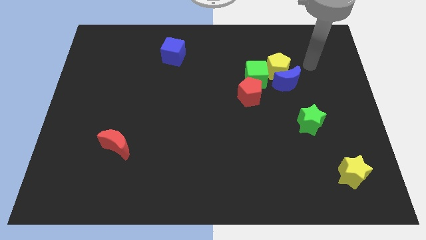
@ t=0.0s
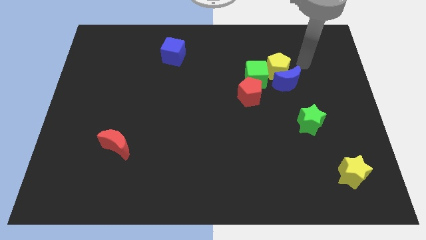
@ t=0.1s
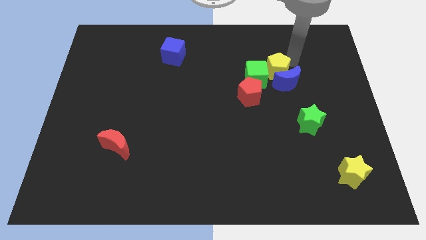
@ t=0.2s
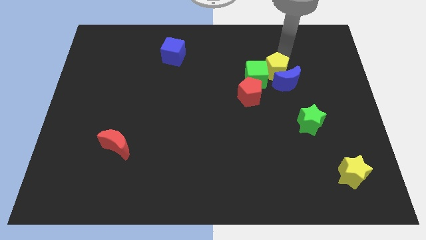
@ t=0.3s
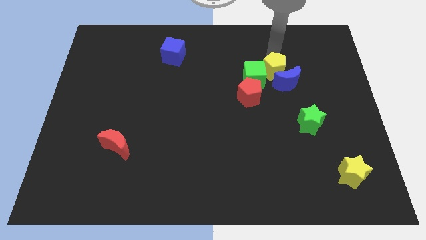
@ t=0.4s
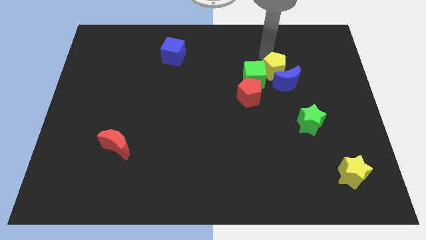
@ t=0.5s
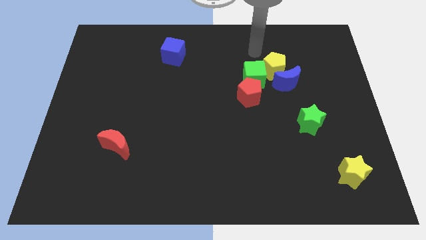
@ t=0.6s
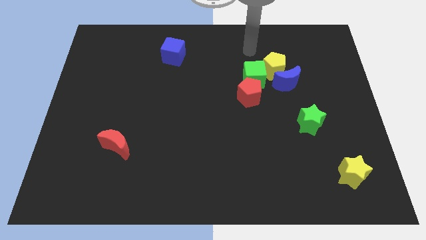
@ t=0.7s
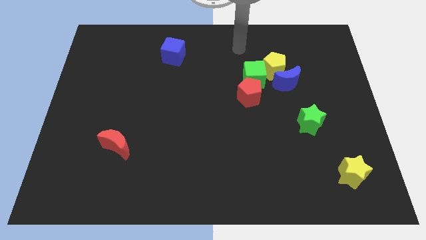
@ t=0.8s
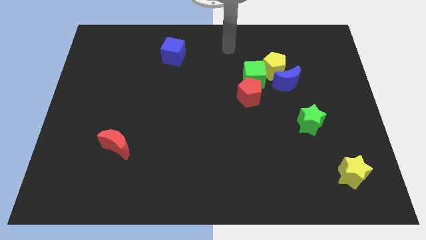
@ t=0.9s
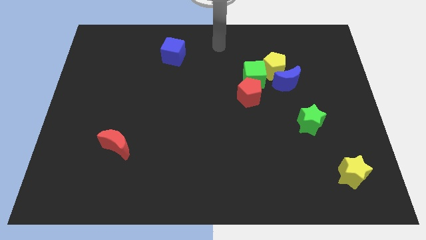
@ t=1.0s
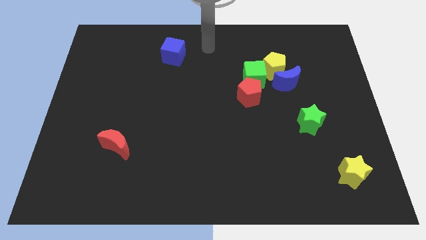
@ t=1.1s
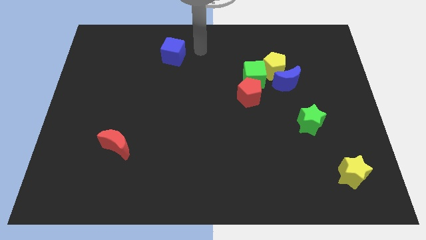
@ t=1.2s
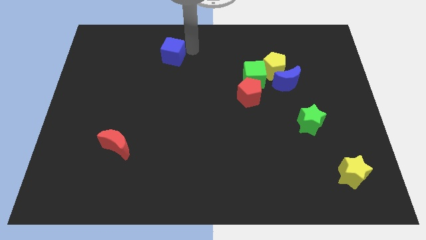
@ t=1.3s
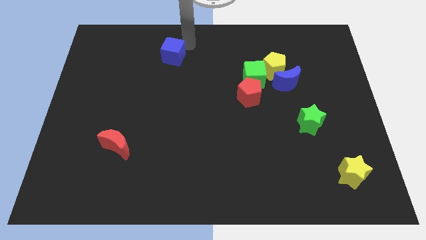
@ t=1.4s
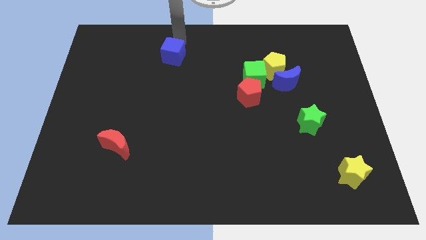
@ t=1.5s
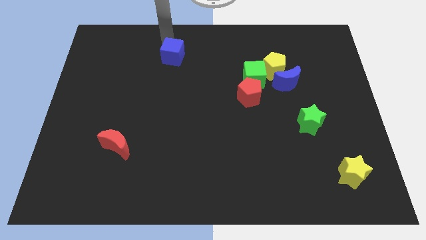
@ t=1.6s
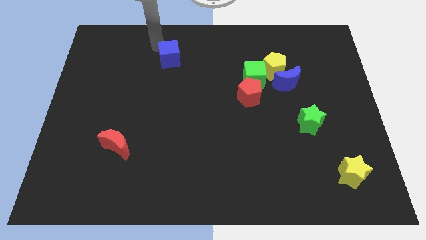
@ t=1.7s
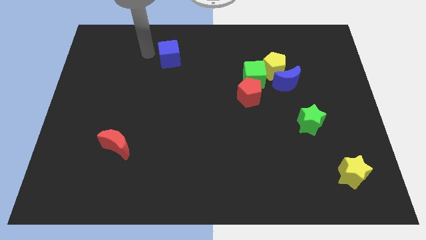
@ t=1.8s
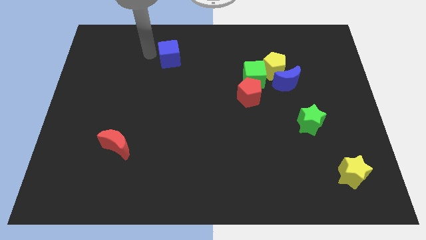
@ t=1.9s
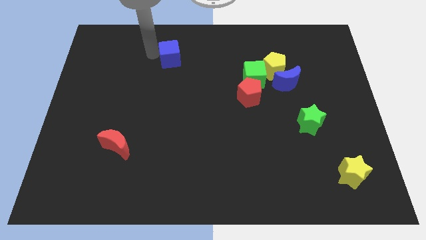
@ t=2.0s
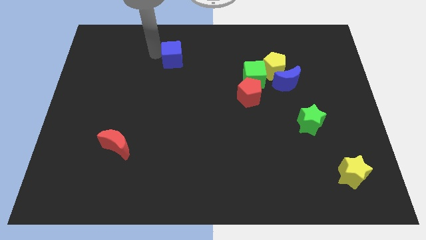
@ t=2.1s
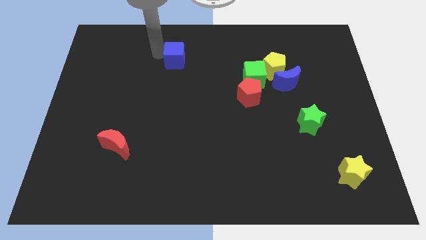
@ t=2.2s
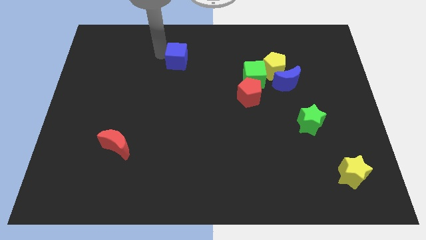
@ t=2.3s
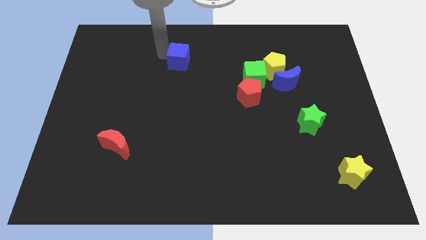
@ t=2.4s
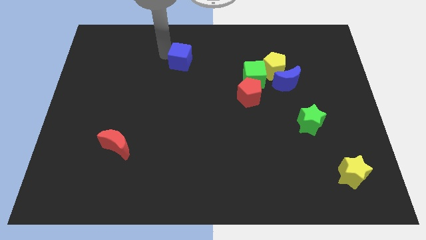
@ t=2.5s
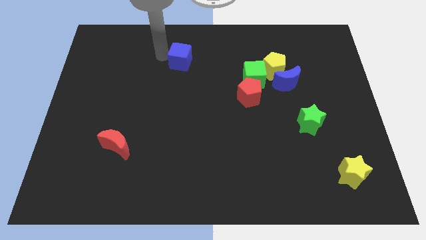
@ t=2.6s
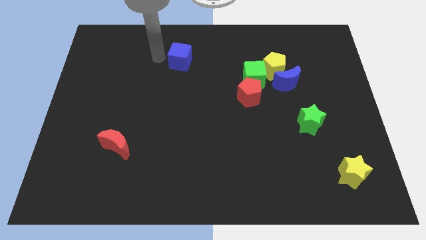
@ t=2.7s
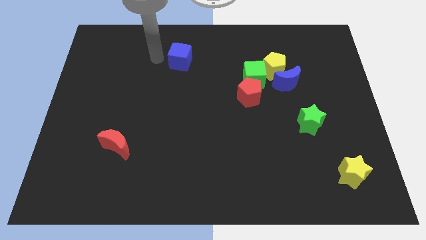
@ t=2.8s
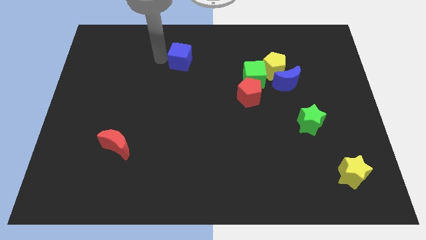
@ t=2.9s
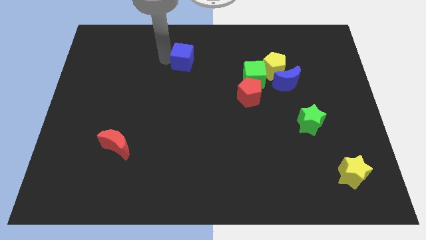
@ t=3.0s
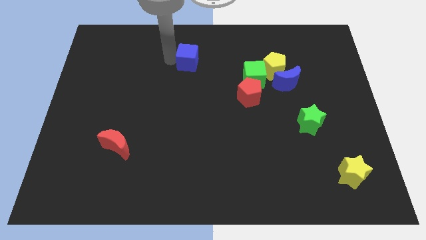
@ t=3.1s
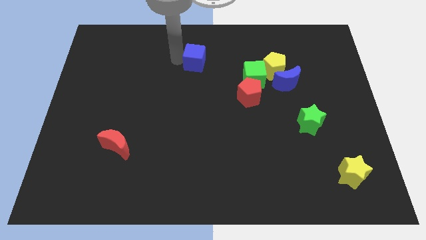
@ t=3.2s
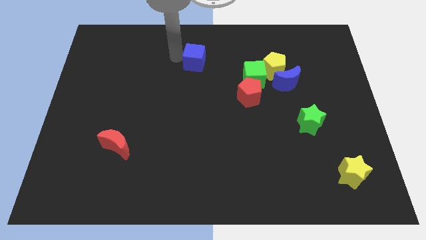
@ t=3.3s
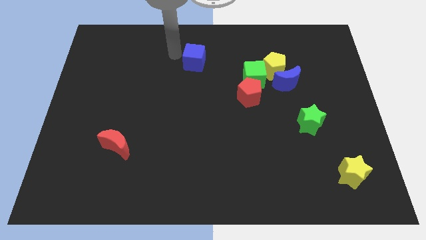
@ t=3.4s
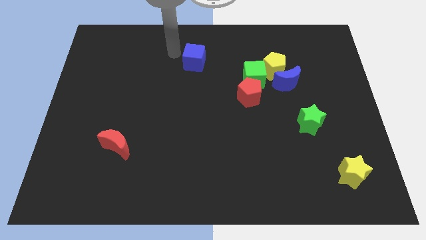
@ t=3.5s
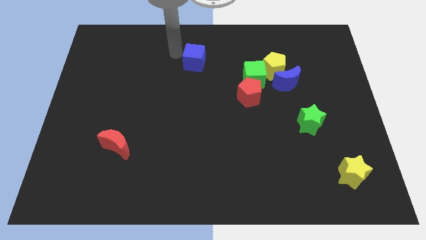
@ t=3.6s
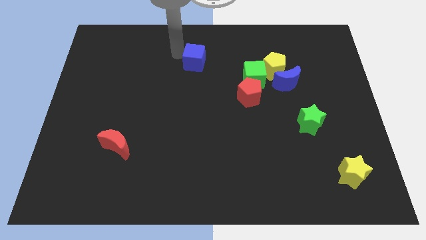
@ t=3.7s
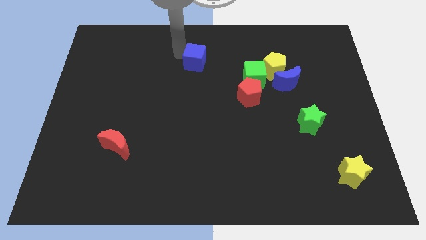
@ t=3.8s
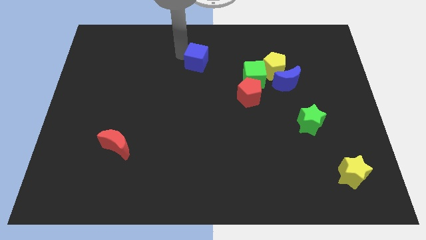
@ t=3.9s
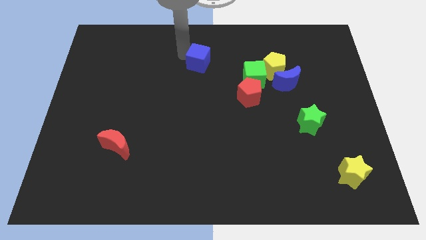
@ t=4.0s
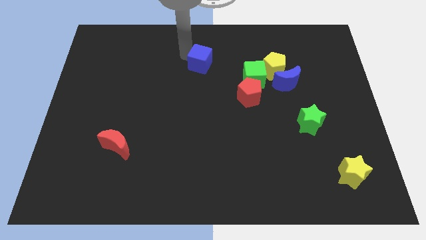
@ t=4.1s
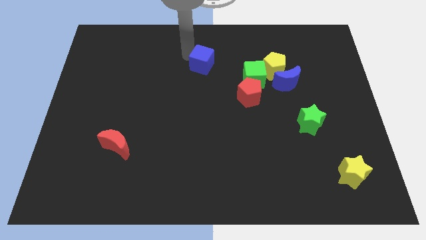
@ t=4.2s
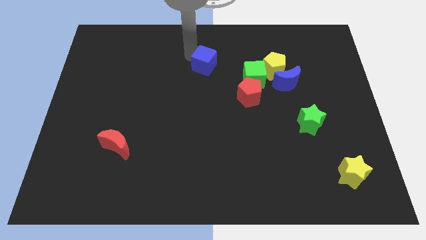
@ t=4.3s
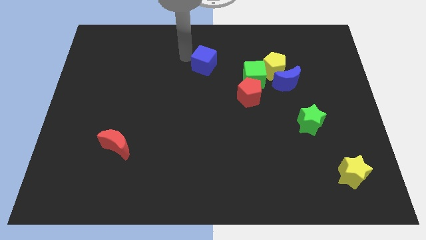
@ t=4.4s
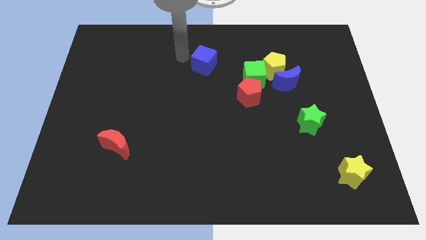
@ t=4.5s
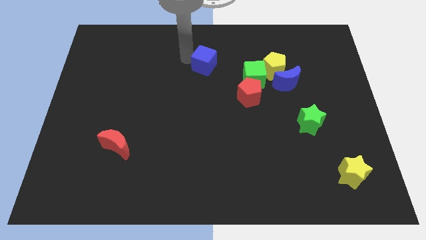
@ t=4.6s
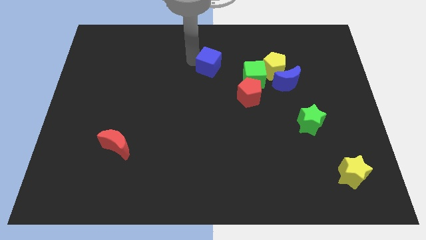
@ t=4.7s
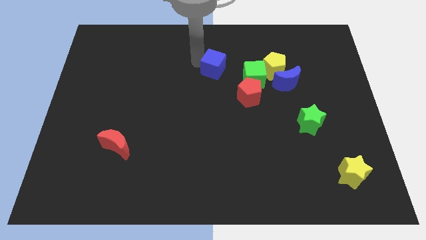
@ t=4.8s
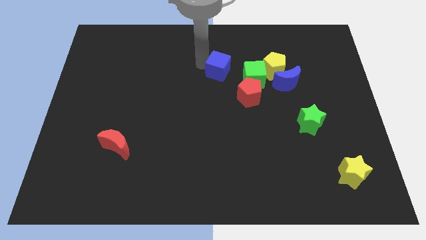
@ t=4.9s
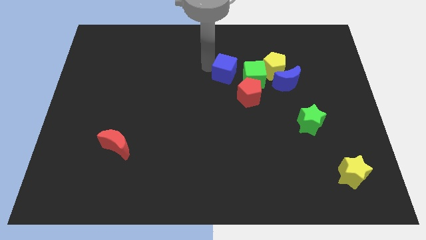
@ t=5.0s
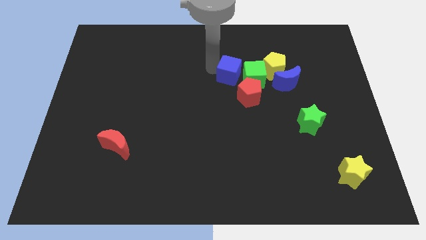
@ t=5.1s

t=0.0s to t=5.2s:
slide the blue cube towards the green cube

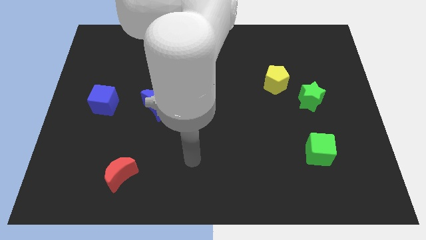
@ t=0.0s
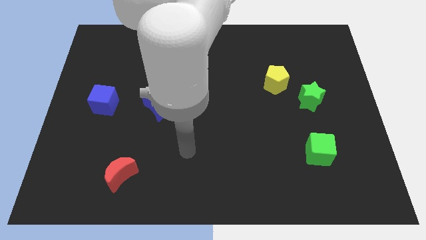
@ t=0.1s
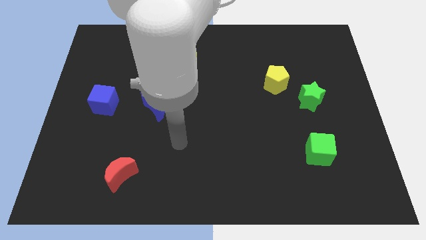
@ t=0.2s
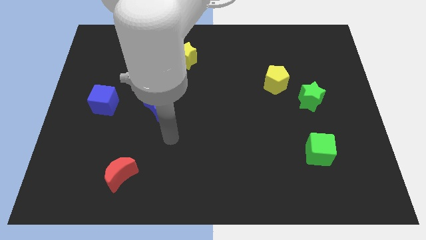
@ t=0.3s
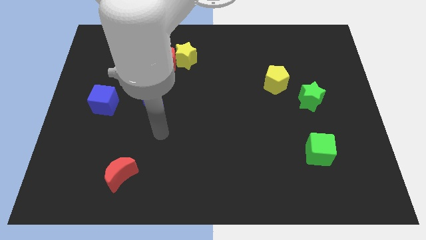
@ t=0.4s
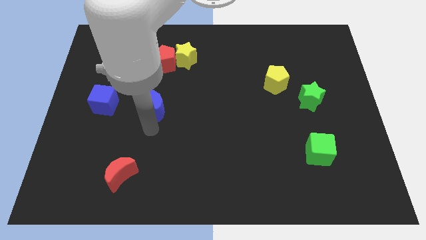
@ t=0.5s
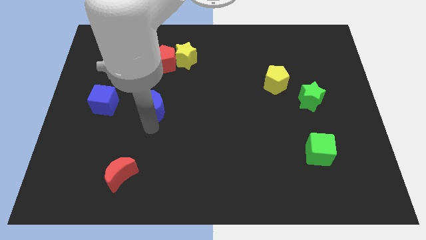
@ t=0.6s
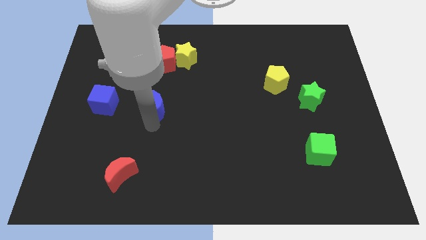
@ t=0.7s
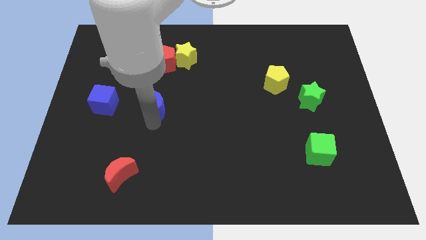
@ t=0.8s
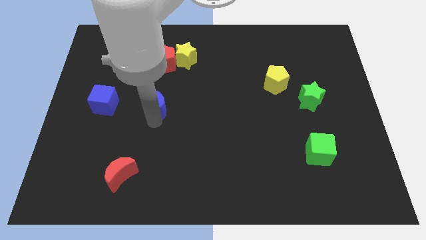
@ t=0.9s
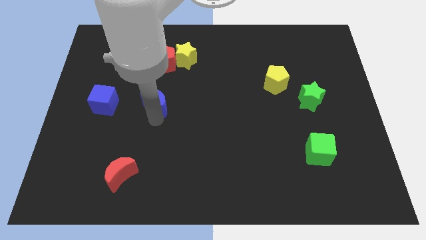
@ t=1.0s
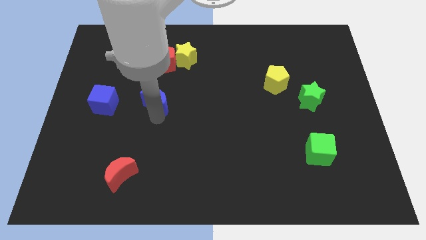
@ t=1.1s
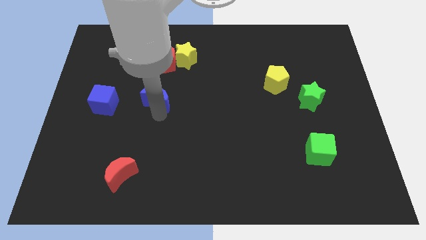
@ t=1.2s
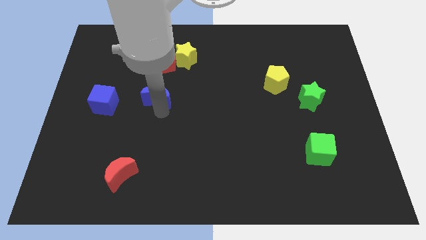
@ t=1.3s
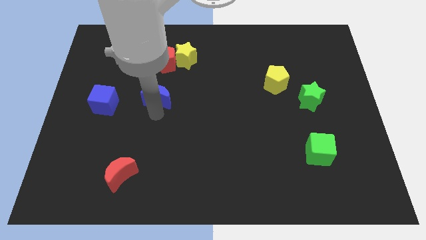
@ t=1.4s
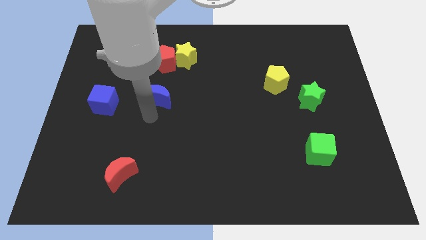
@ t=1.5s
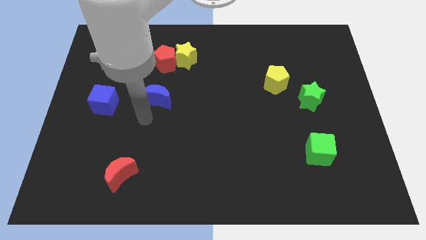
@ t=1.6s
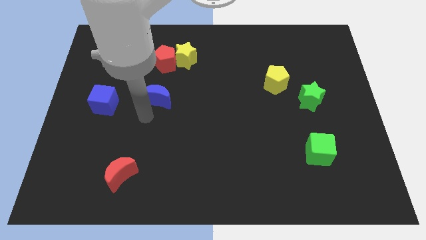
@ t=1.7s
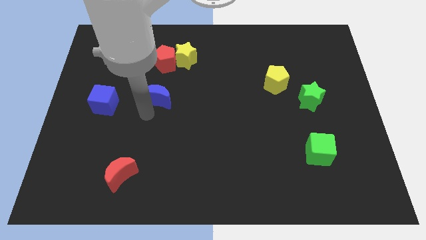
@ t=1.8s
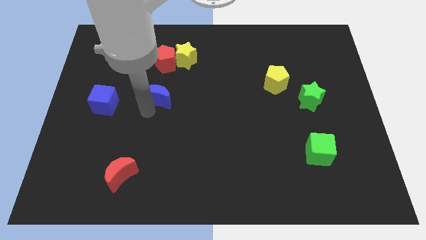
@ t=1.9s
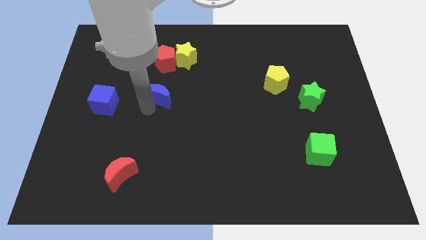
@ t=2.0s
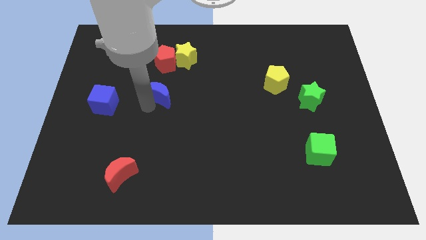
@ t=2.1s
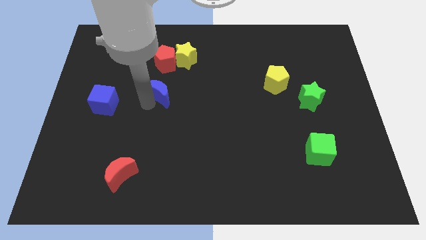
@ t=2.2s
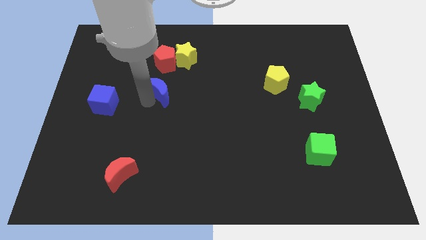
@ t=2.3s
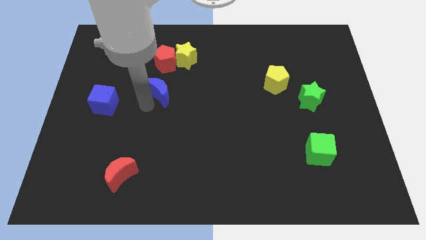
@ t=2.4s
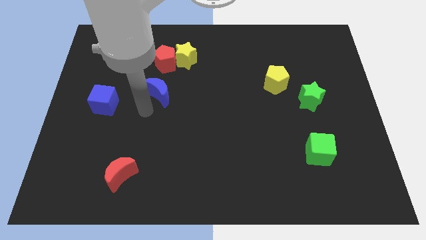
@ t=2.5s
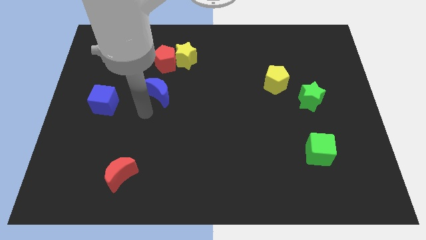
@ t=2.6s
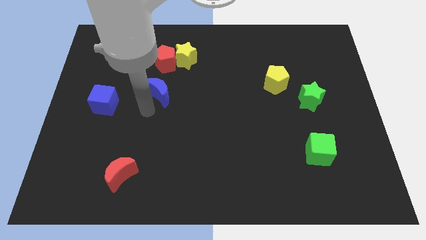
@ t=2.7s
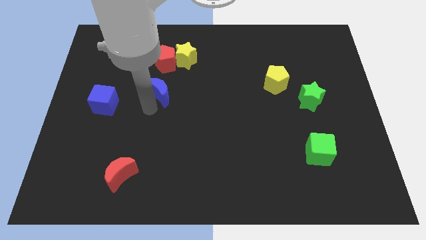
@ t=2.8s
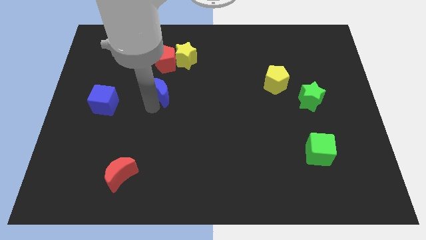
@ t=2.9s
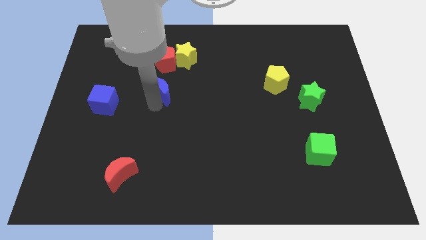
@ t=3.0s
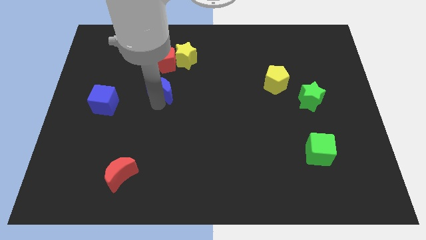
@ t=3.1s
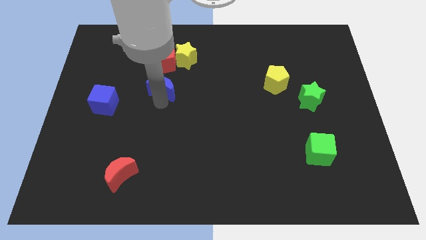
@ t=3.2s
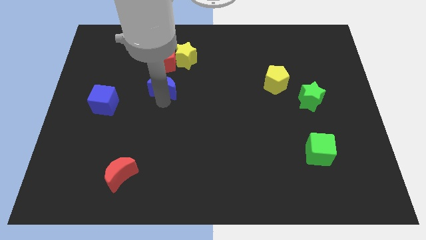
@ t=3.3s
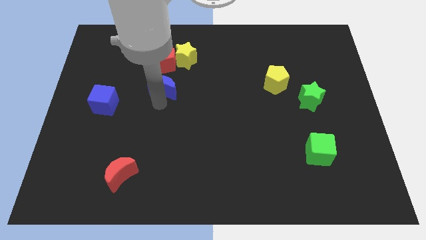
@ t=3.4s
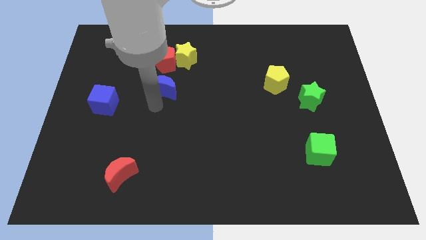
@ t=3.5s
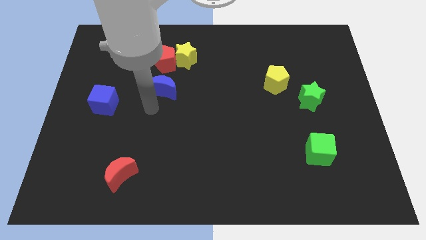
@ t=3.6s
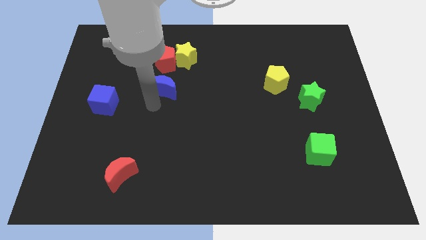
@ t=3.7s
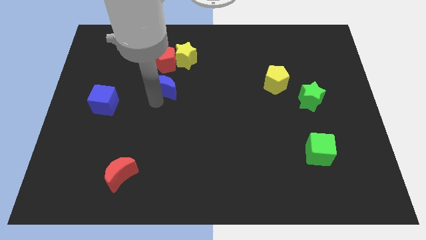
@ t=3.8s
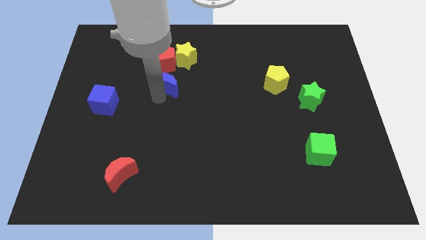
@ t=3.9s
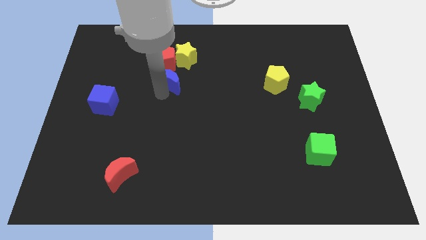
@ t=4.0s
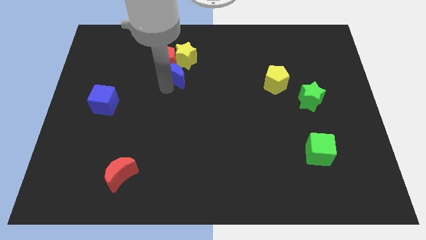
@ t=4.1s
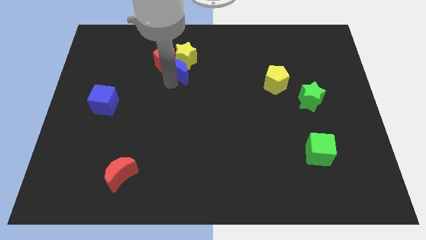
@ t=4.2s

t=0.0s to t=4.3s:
move the blue moon close to the yellow star
